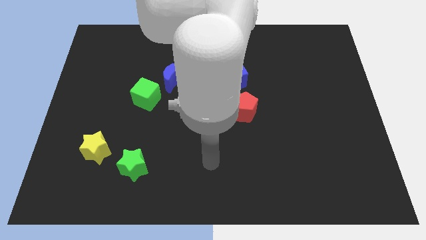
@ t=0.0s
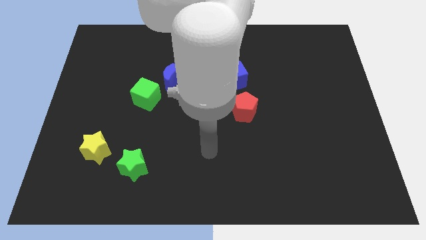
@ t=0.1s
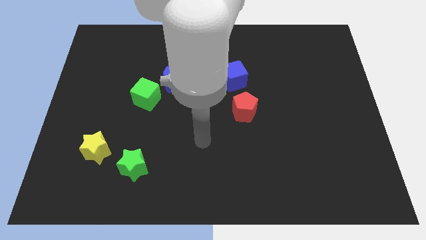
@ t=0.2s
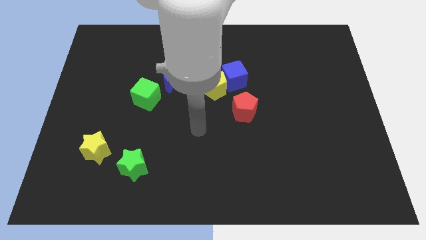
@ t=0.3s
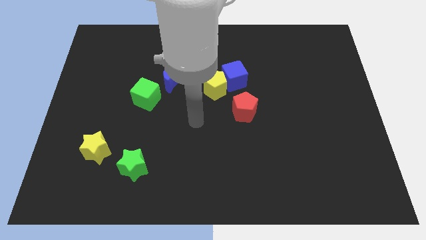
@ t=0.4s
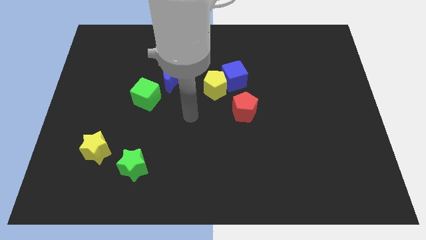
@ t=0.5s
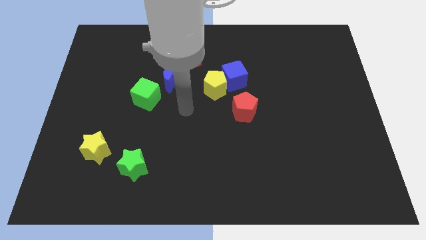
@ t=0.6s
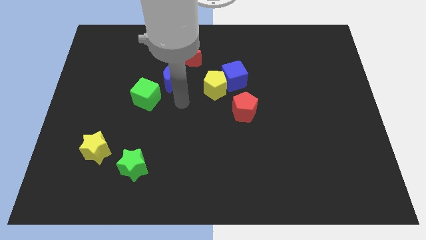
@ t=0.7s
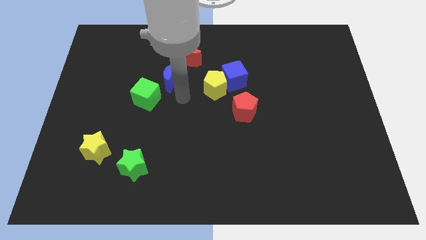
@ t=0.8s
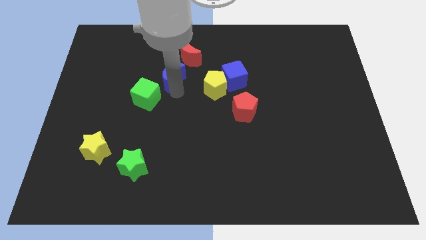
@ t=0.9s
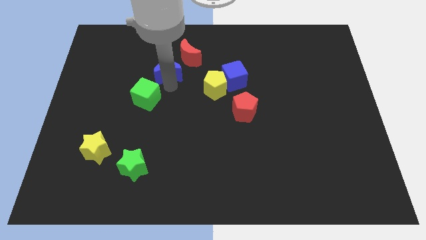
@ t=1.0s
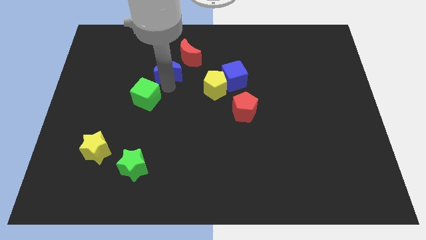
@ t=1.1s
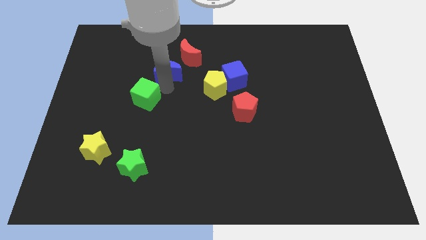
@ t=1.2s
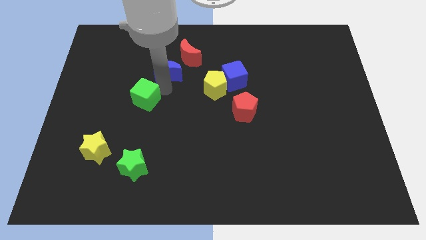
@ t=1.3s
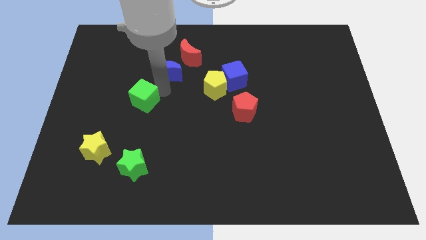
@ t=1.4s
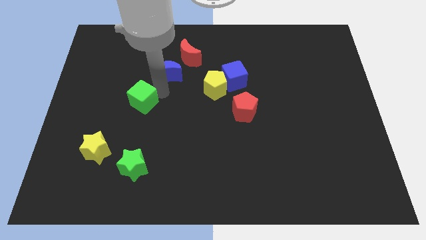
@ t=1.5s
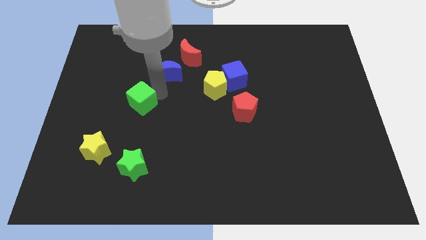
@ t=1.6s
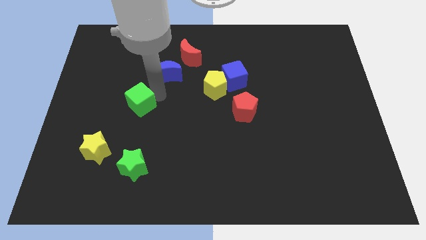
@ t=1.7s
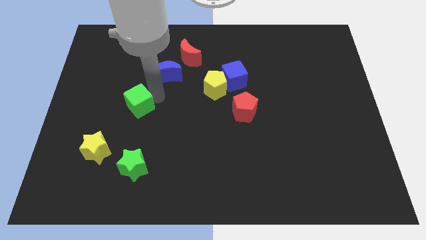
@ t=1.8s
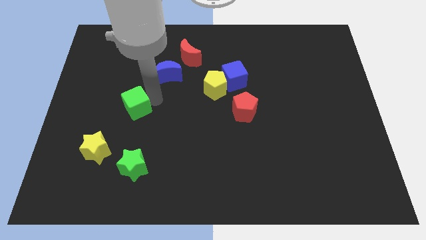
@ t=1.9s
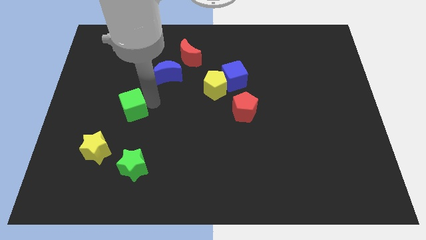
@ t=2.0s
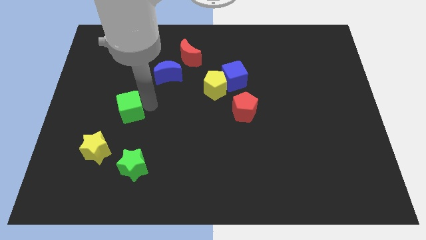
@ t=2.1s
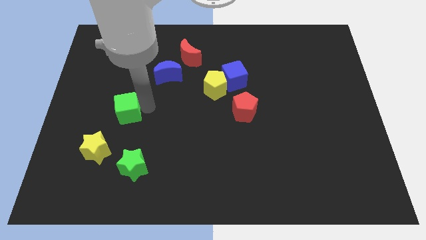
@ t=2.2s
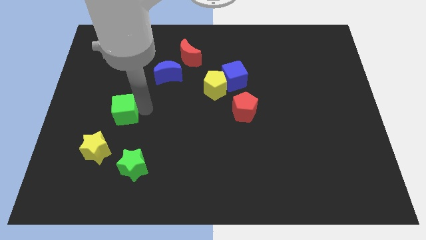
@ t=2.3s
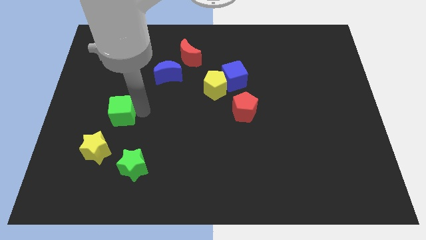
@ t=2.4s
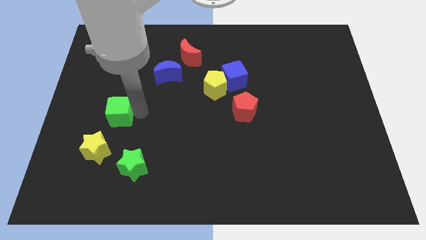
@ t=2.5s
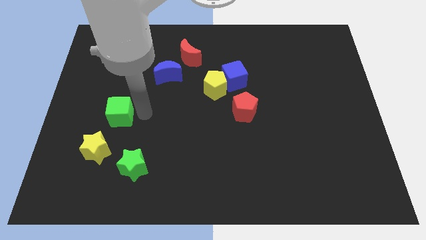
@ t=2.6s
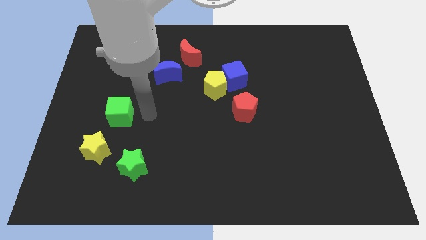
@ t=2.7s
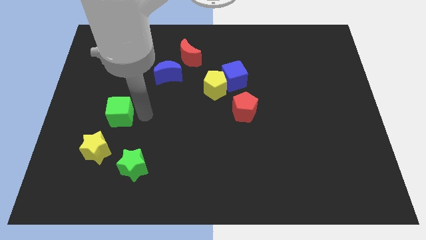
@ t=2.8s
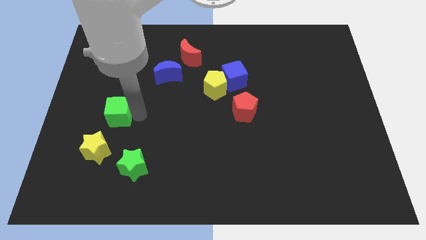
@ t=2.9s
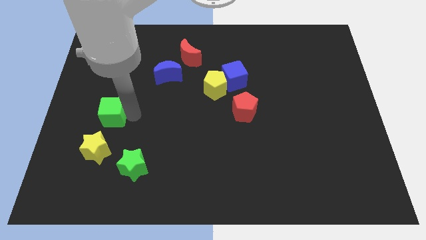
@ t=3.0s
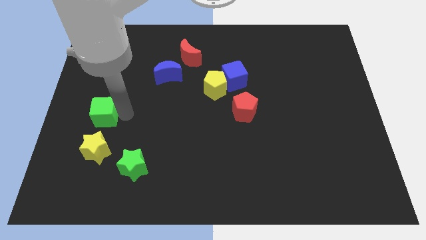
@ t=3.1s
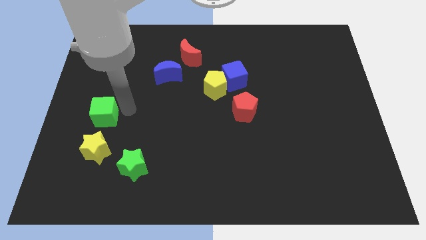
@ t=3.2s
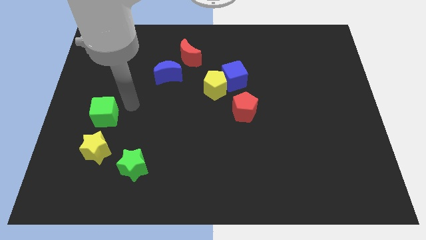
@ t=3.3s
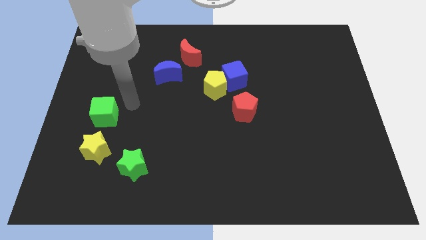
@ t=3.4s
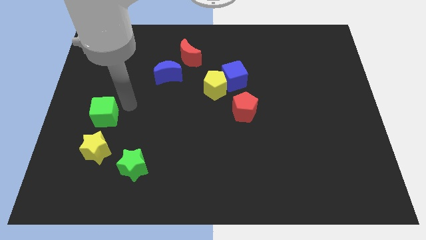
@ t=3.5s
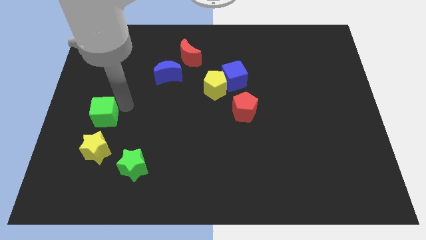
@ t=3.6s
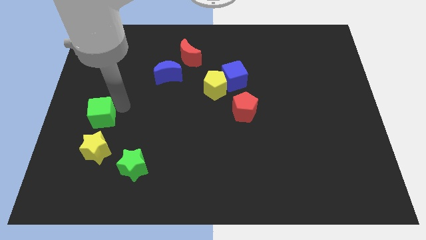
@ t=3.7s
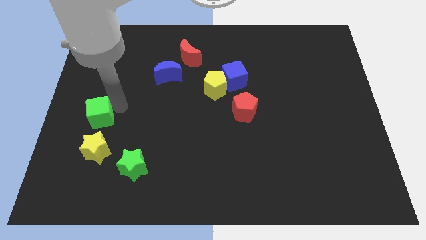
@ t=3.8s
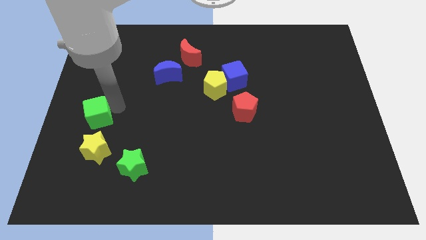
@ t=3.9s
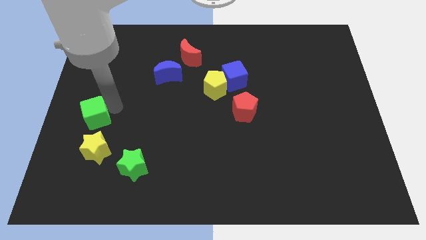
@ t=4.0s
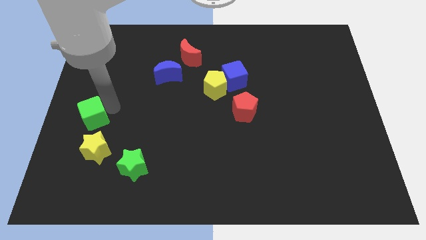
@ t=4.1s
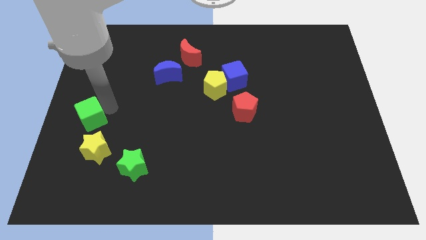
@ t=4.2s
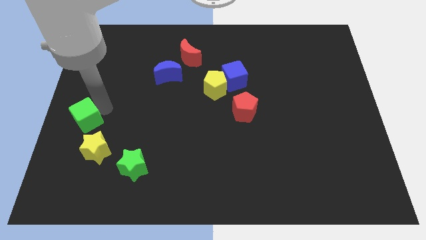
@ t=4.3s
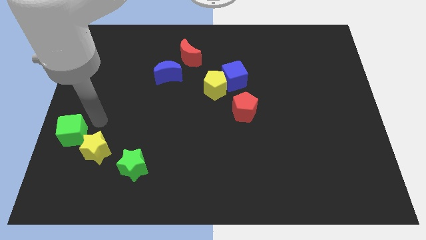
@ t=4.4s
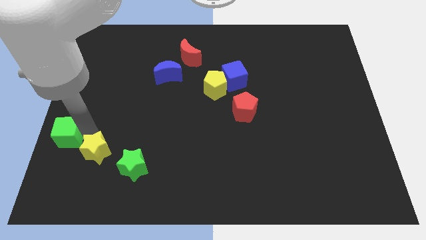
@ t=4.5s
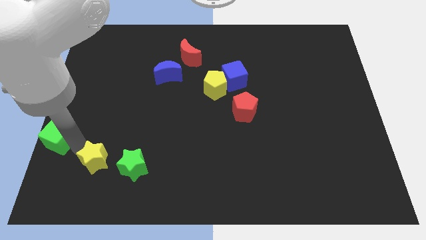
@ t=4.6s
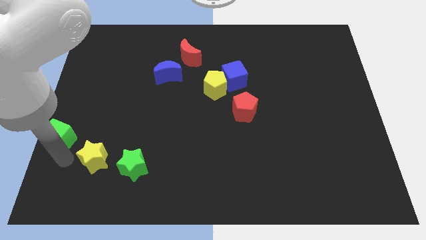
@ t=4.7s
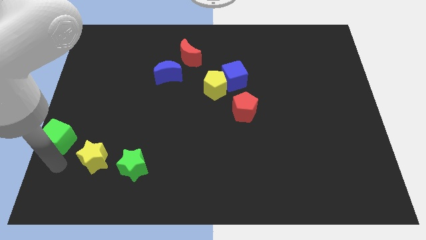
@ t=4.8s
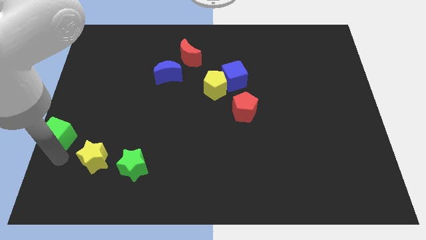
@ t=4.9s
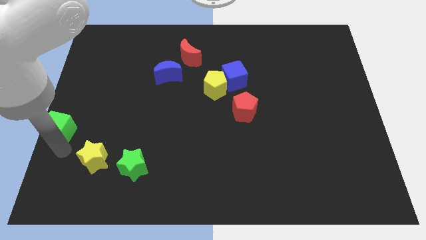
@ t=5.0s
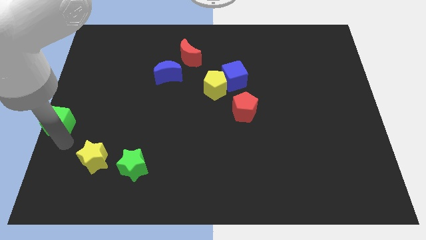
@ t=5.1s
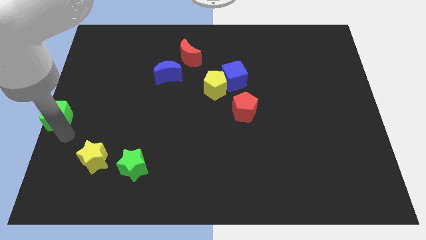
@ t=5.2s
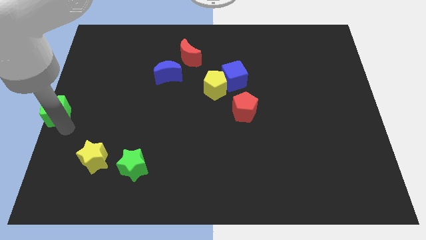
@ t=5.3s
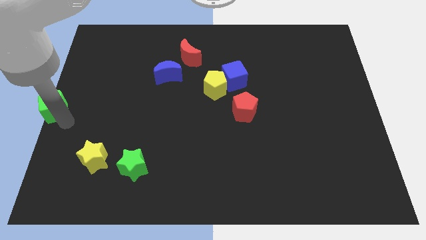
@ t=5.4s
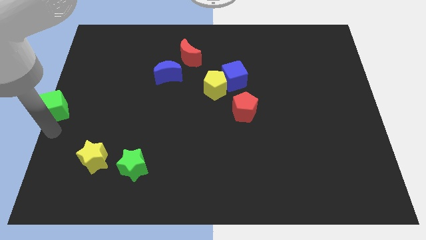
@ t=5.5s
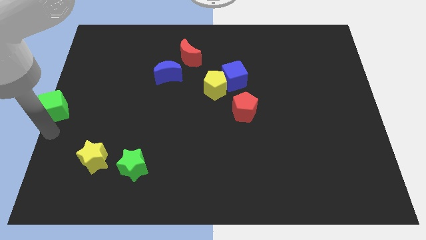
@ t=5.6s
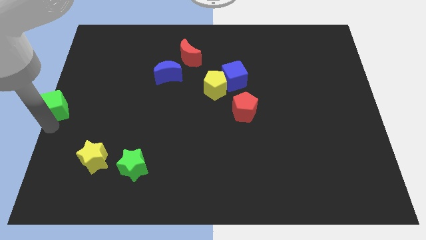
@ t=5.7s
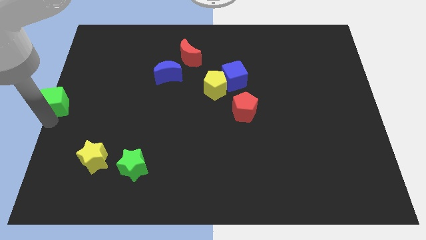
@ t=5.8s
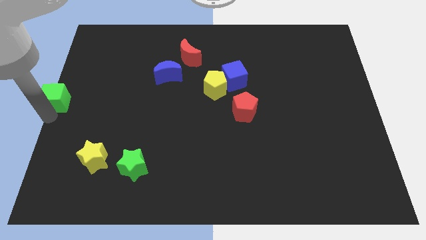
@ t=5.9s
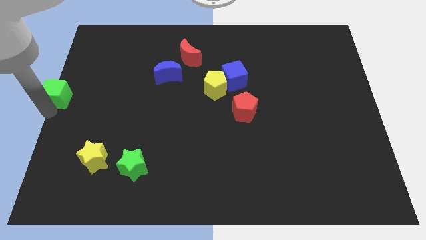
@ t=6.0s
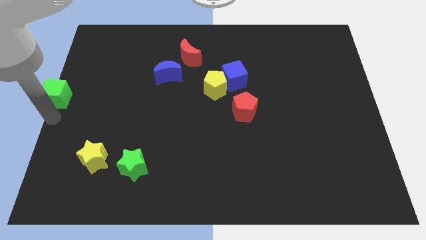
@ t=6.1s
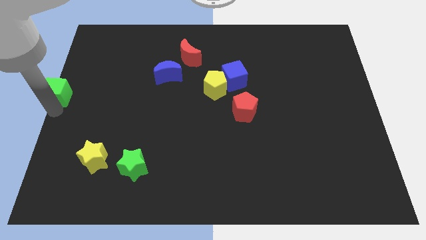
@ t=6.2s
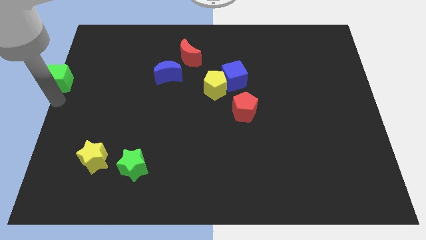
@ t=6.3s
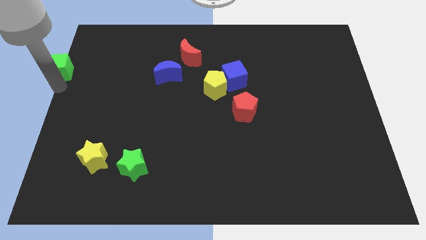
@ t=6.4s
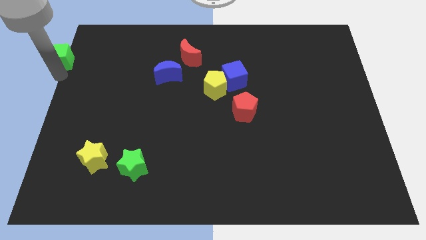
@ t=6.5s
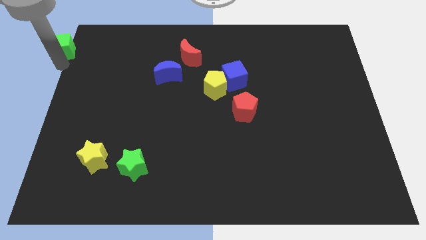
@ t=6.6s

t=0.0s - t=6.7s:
slide the green cube to the upper left corner
